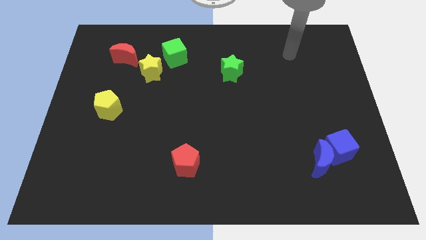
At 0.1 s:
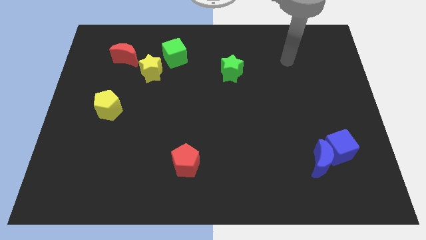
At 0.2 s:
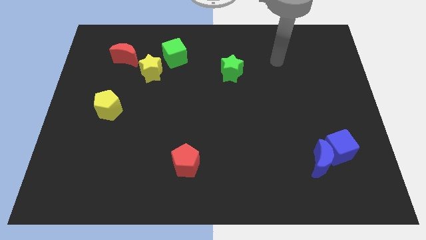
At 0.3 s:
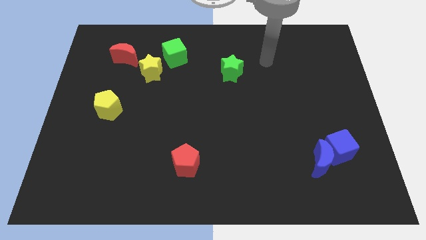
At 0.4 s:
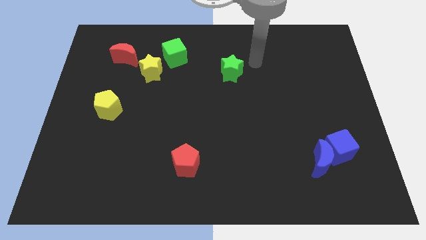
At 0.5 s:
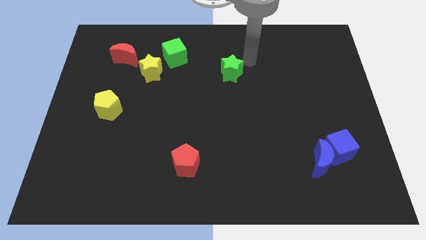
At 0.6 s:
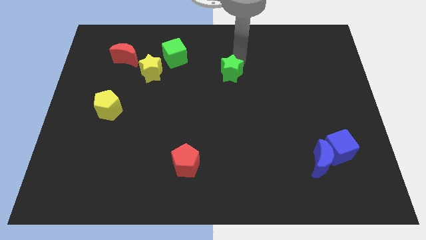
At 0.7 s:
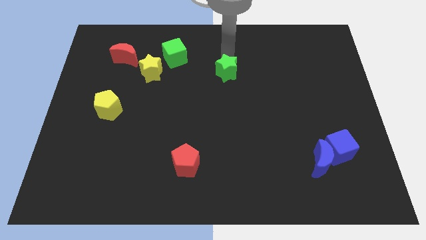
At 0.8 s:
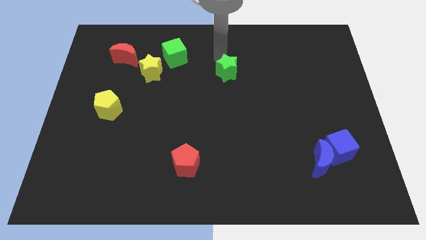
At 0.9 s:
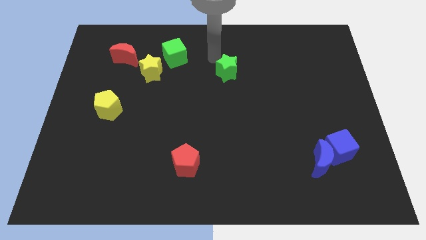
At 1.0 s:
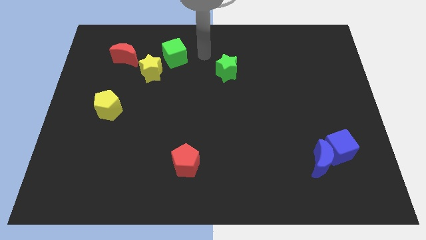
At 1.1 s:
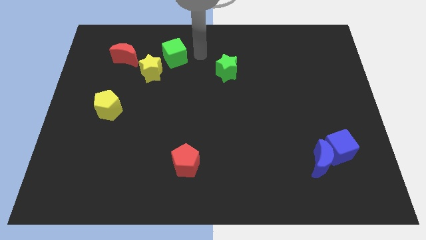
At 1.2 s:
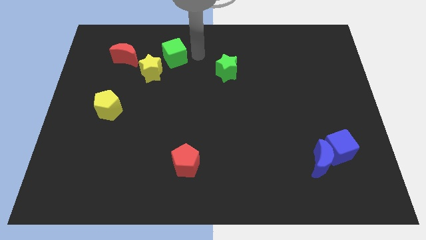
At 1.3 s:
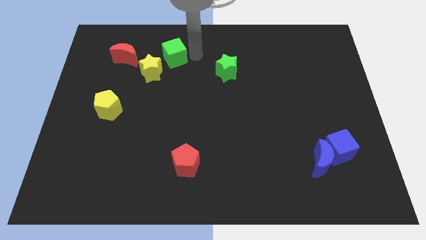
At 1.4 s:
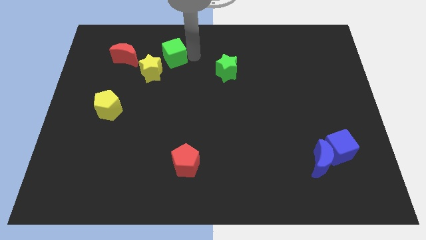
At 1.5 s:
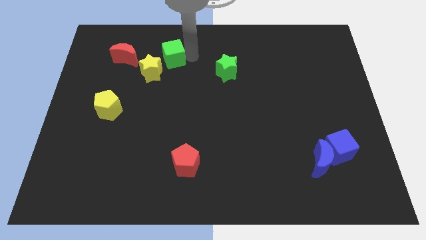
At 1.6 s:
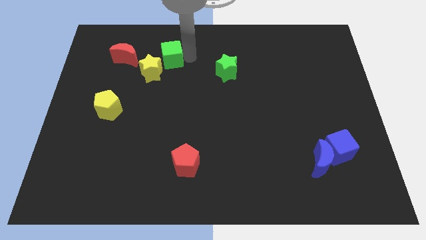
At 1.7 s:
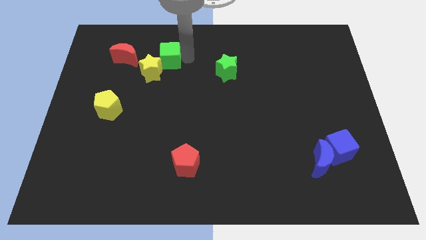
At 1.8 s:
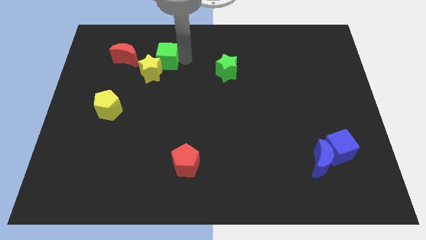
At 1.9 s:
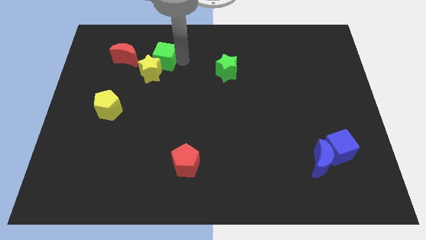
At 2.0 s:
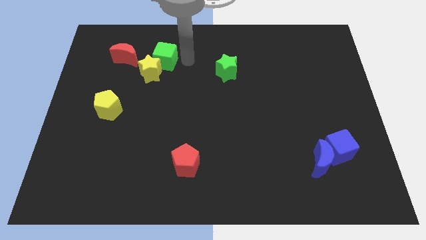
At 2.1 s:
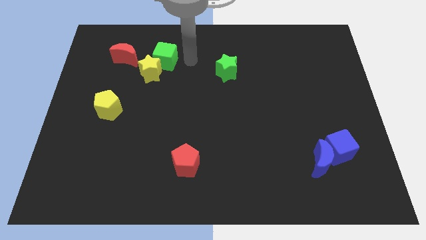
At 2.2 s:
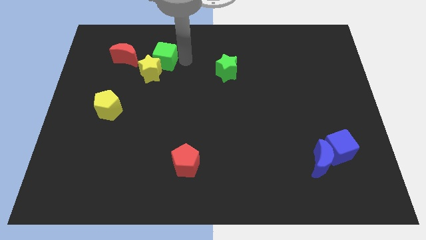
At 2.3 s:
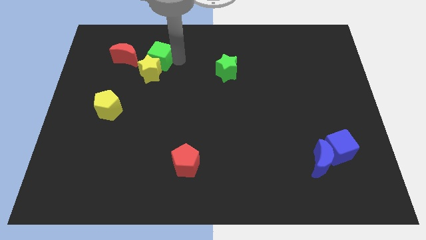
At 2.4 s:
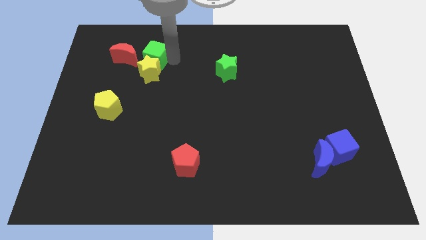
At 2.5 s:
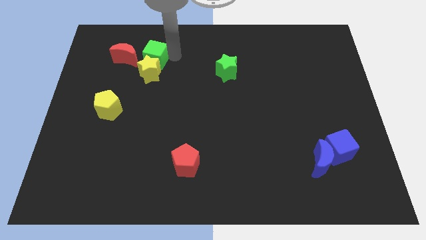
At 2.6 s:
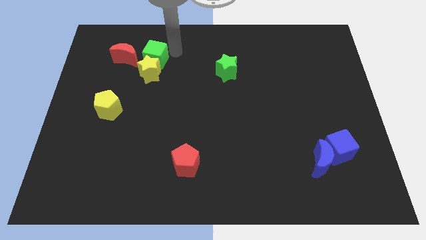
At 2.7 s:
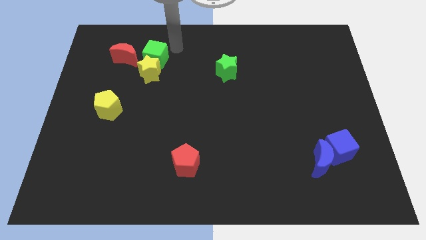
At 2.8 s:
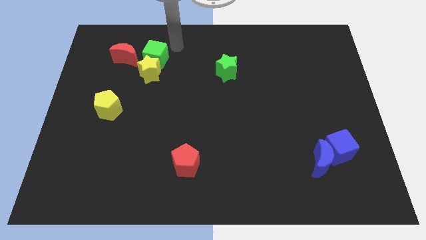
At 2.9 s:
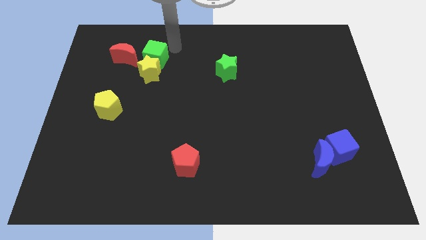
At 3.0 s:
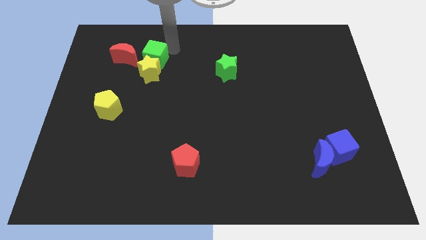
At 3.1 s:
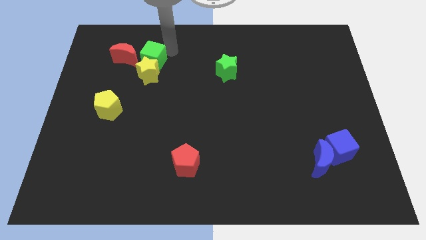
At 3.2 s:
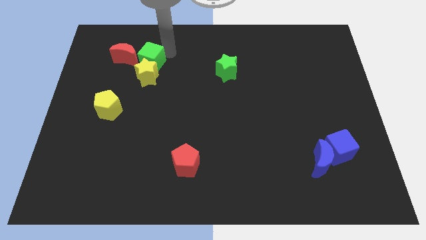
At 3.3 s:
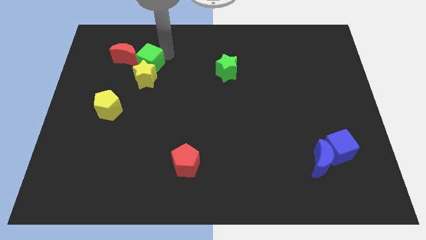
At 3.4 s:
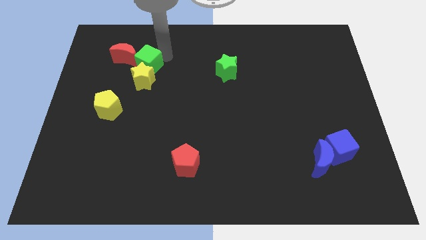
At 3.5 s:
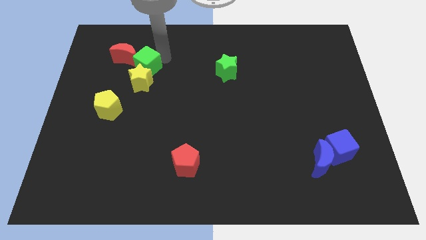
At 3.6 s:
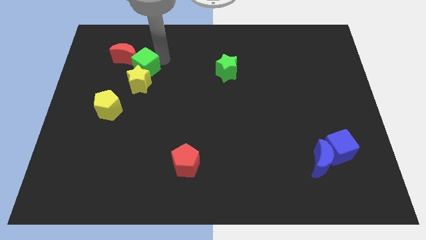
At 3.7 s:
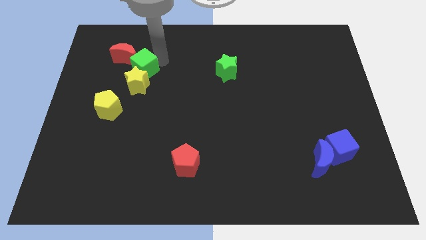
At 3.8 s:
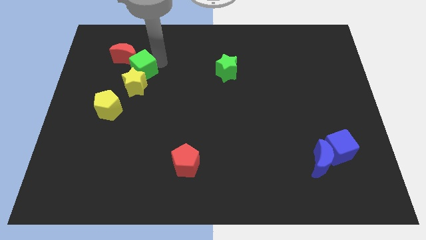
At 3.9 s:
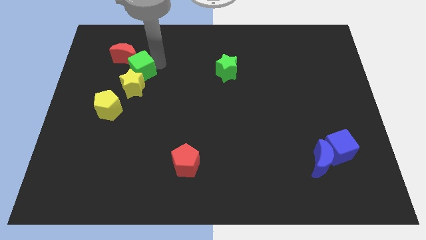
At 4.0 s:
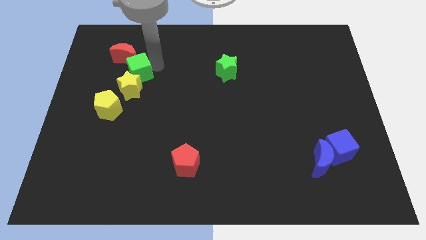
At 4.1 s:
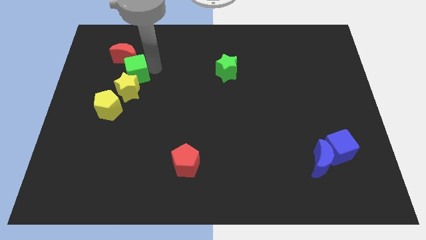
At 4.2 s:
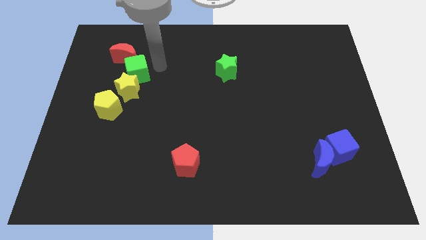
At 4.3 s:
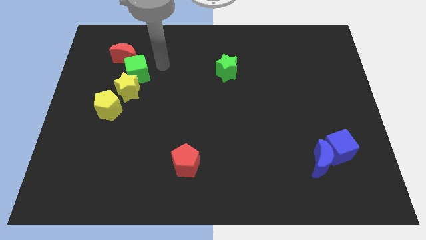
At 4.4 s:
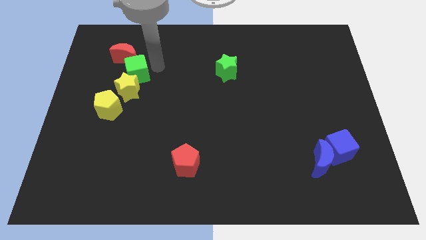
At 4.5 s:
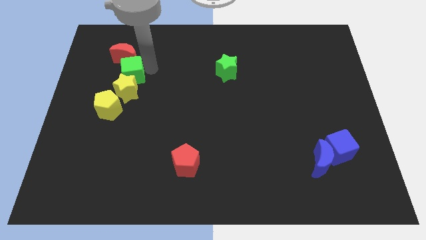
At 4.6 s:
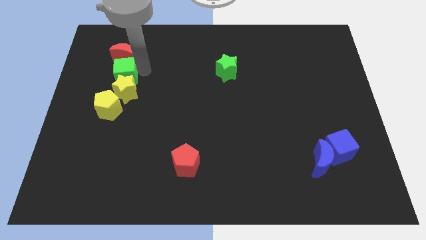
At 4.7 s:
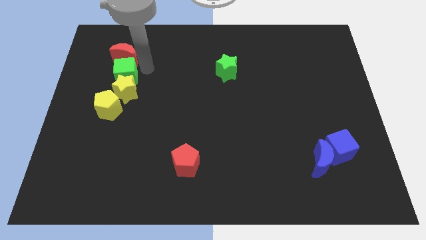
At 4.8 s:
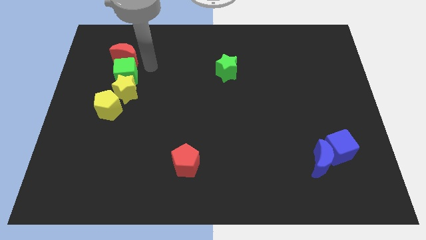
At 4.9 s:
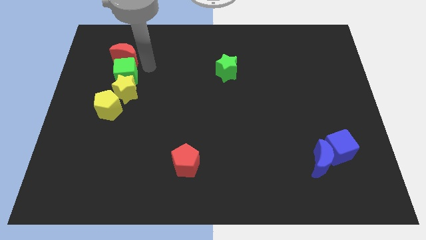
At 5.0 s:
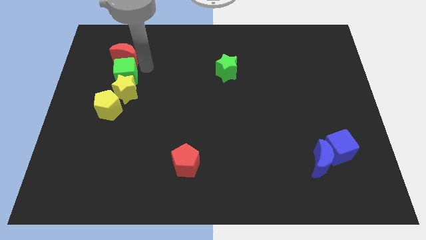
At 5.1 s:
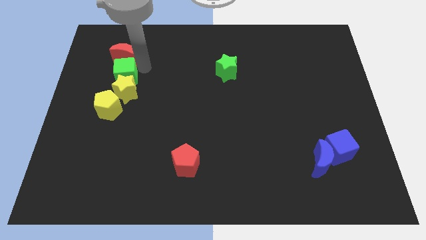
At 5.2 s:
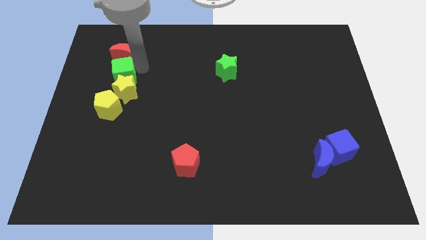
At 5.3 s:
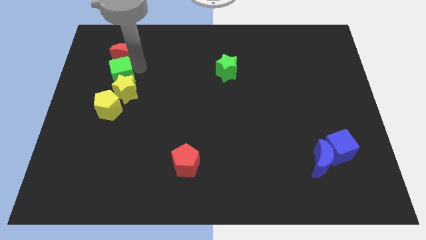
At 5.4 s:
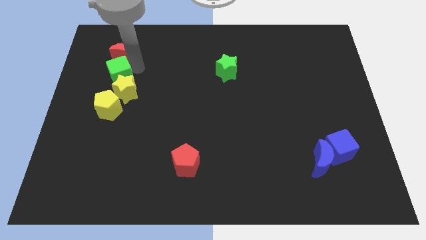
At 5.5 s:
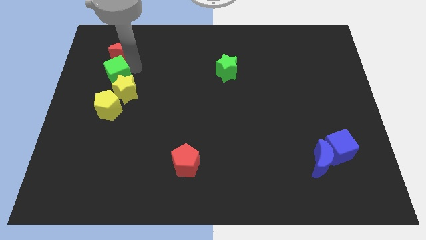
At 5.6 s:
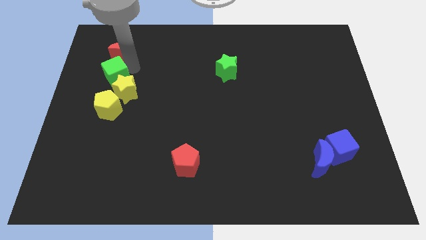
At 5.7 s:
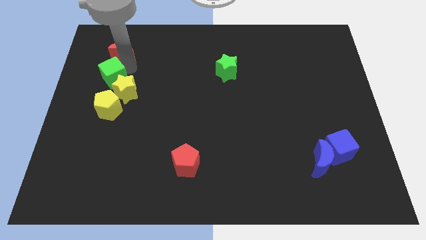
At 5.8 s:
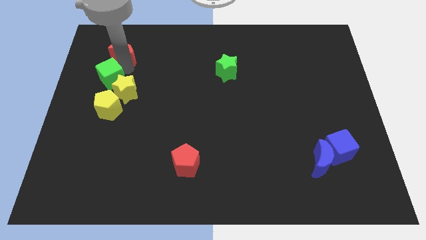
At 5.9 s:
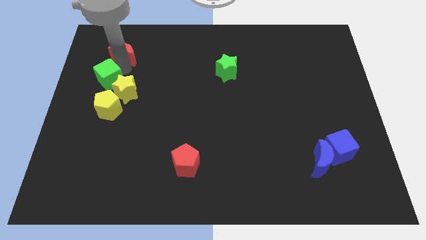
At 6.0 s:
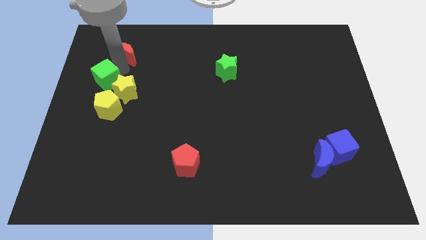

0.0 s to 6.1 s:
put the green cube to the center left

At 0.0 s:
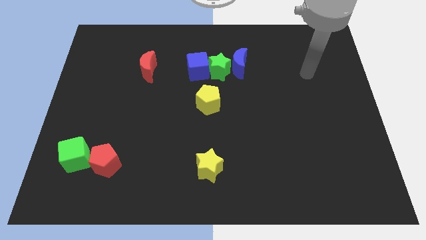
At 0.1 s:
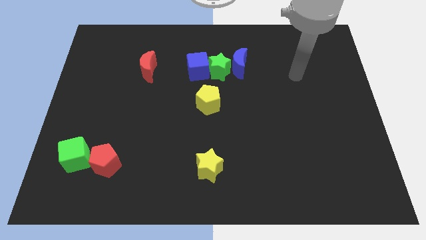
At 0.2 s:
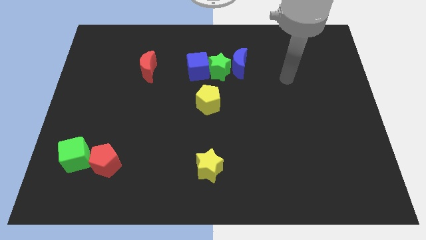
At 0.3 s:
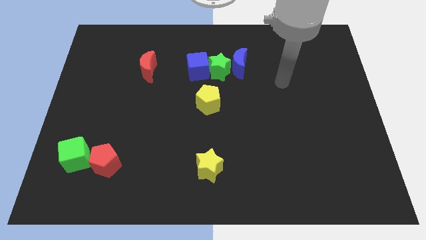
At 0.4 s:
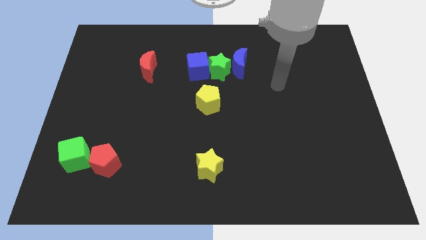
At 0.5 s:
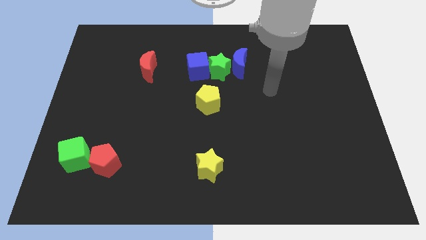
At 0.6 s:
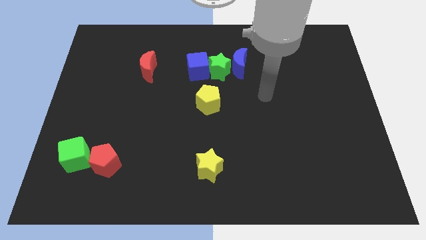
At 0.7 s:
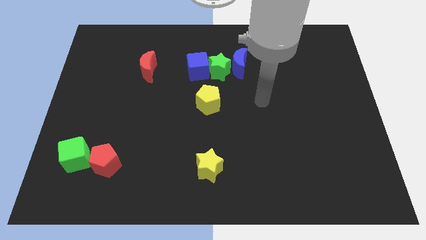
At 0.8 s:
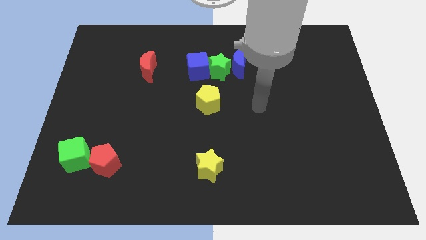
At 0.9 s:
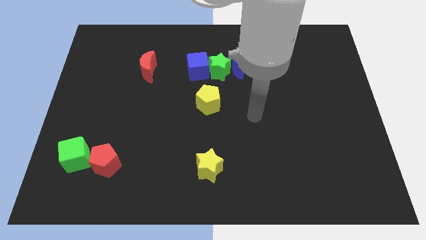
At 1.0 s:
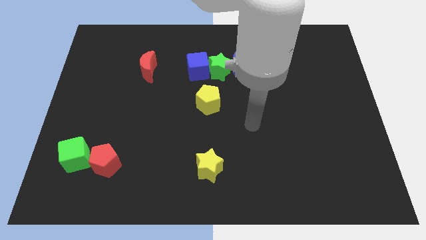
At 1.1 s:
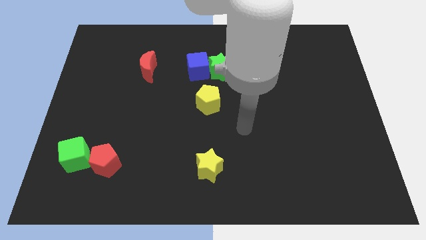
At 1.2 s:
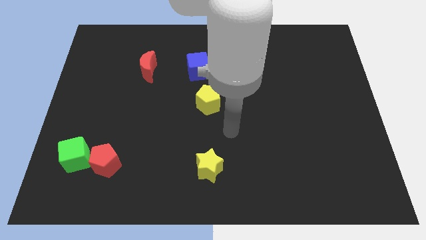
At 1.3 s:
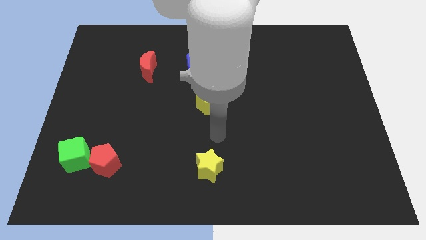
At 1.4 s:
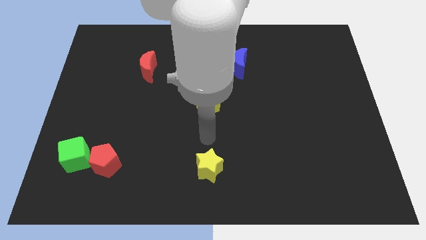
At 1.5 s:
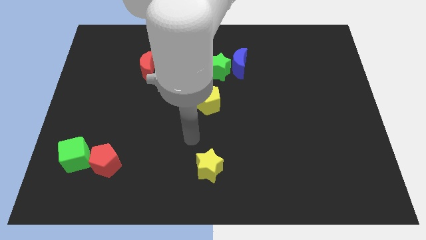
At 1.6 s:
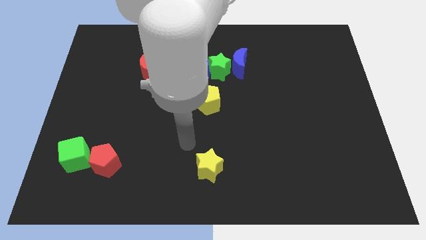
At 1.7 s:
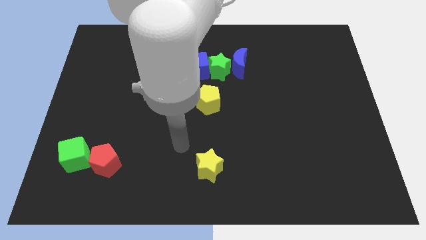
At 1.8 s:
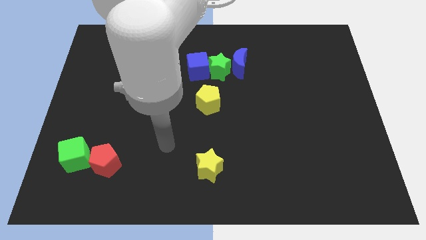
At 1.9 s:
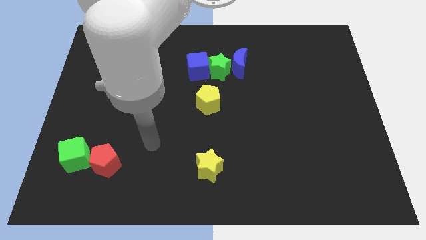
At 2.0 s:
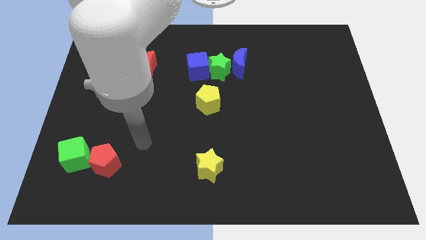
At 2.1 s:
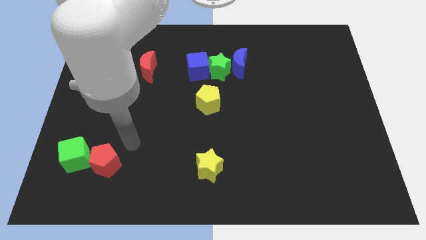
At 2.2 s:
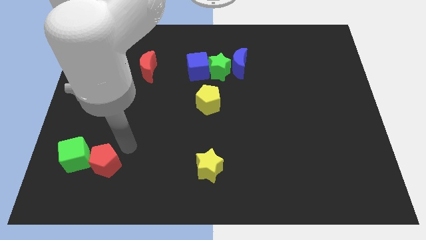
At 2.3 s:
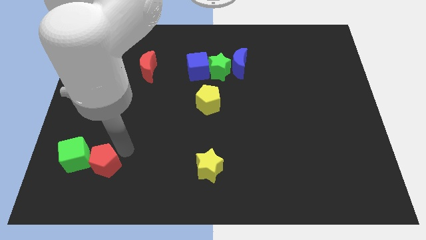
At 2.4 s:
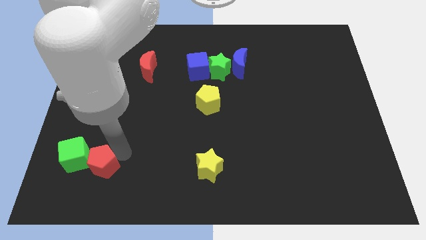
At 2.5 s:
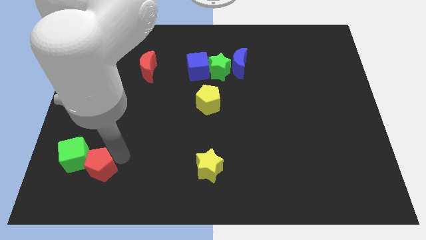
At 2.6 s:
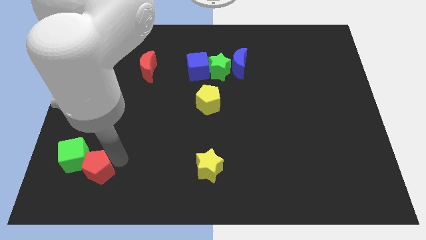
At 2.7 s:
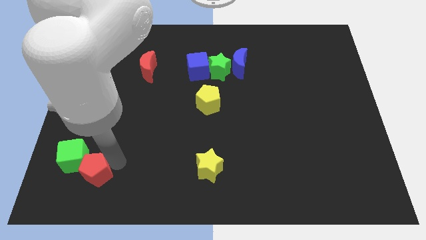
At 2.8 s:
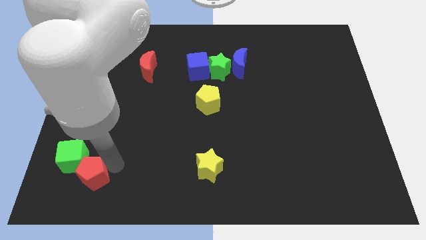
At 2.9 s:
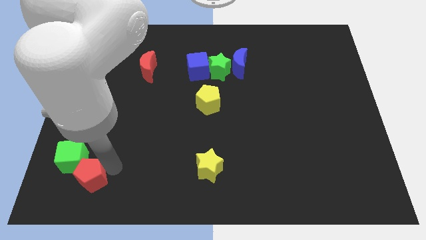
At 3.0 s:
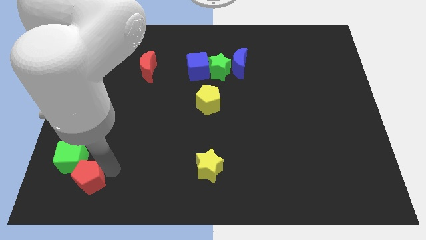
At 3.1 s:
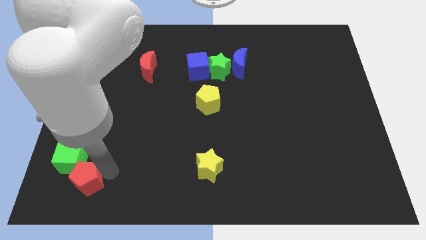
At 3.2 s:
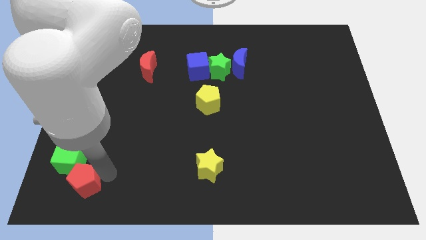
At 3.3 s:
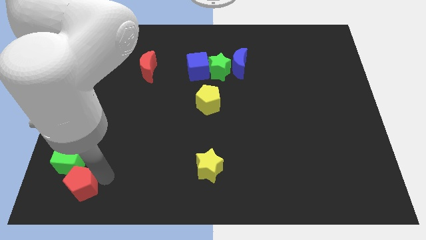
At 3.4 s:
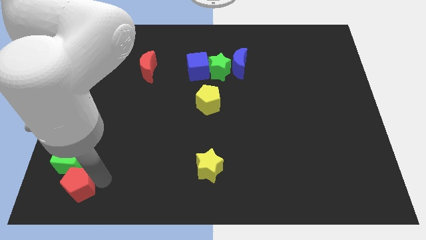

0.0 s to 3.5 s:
slide the red pentagon to the lower left corner
